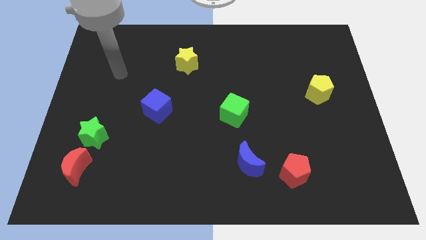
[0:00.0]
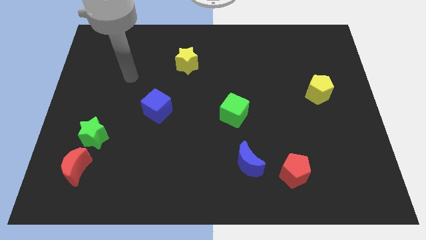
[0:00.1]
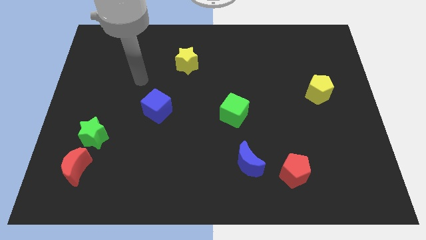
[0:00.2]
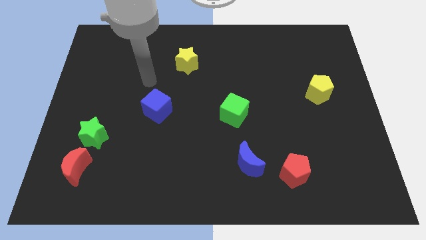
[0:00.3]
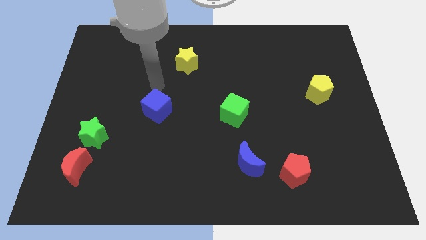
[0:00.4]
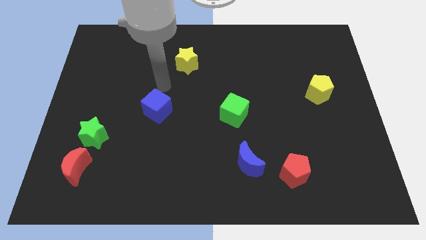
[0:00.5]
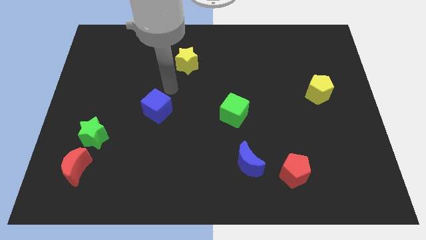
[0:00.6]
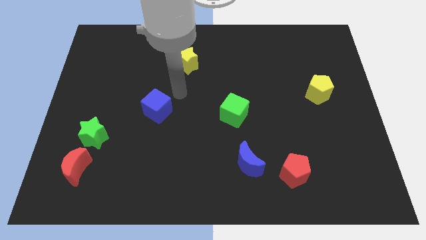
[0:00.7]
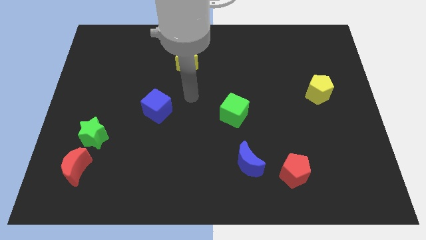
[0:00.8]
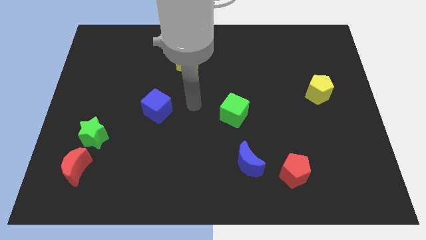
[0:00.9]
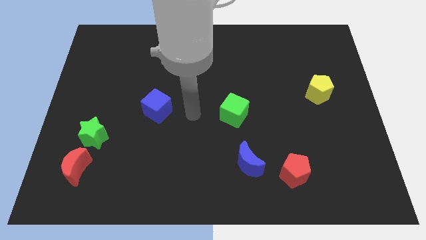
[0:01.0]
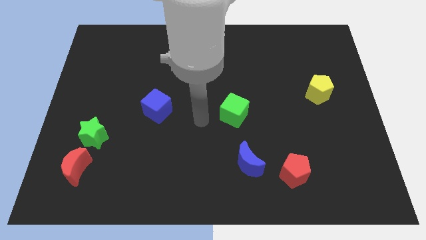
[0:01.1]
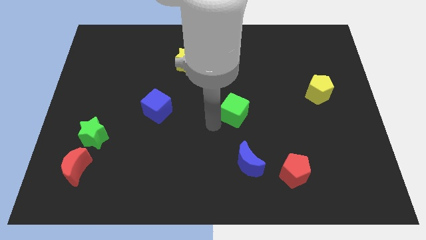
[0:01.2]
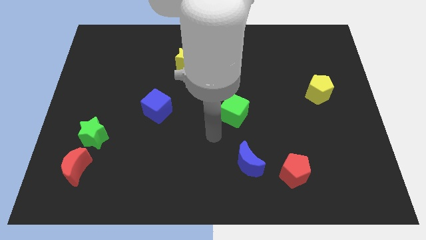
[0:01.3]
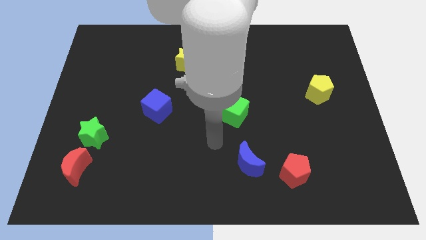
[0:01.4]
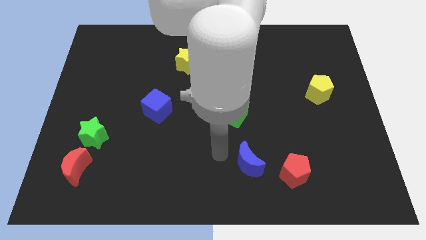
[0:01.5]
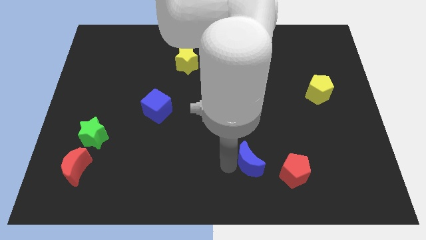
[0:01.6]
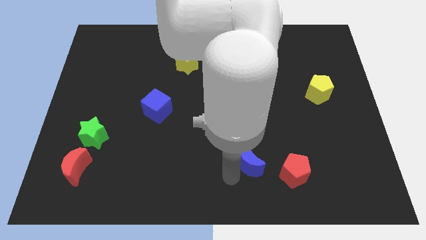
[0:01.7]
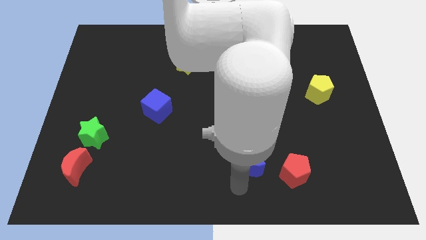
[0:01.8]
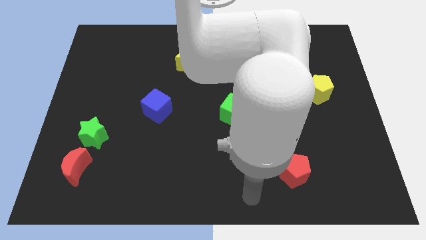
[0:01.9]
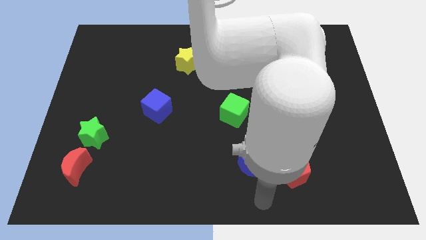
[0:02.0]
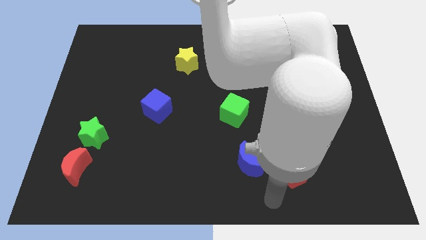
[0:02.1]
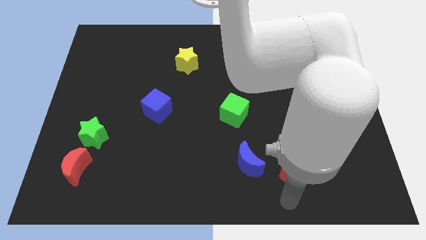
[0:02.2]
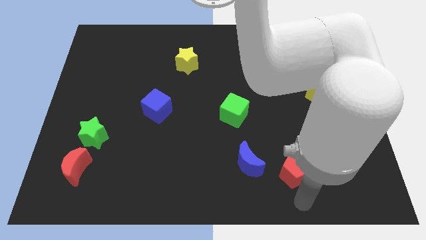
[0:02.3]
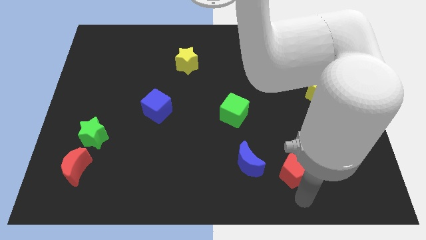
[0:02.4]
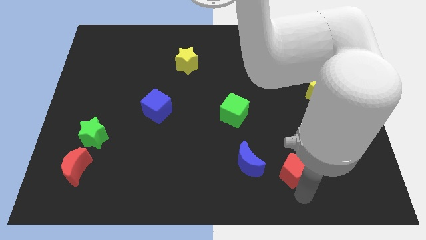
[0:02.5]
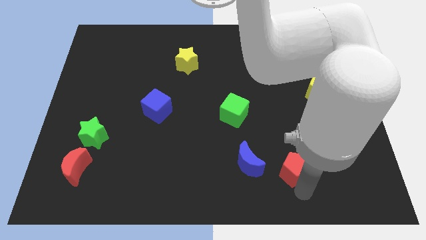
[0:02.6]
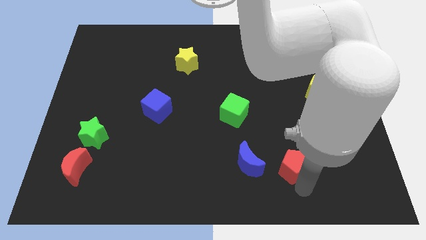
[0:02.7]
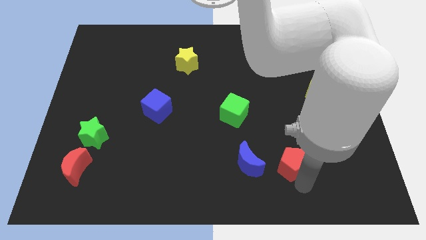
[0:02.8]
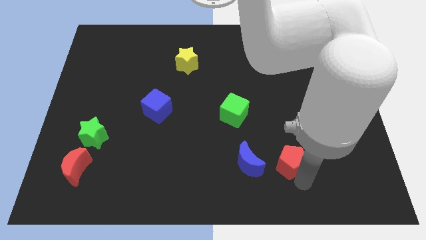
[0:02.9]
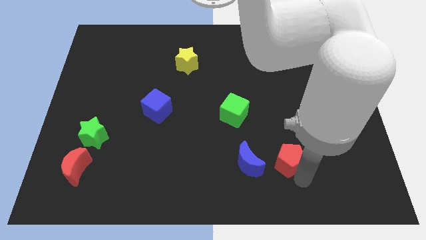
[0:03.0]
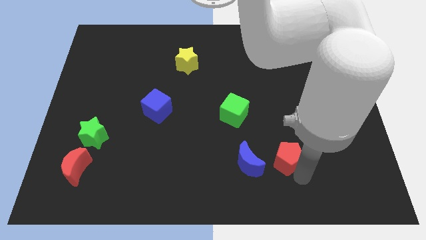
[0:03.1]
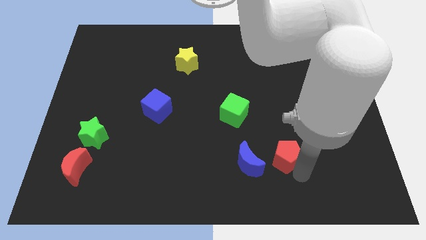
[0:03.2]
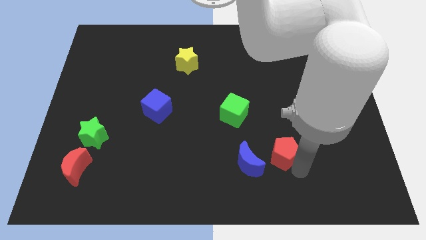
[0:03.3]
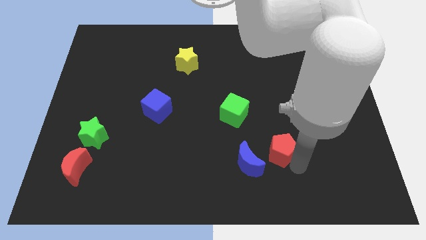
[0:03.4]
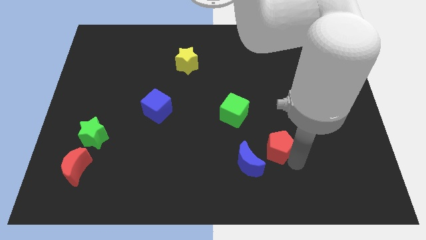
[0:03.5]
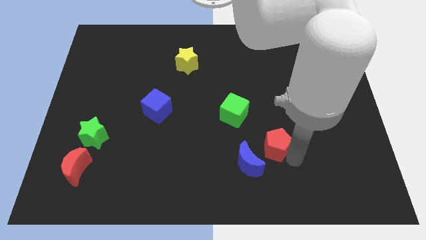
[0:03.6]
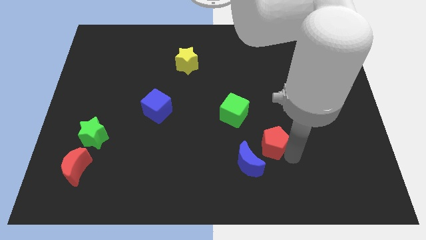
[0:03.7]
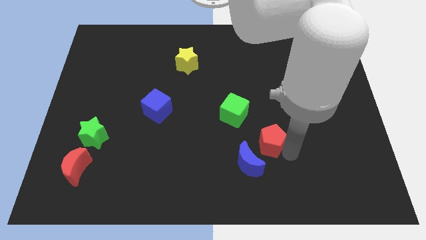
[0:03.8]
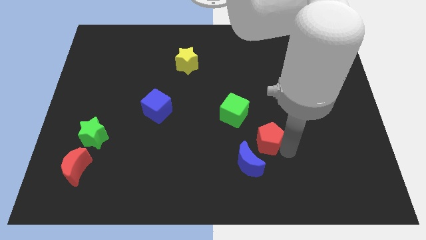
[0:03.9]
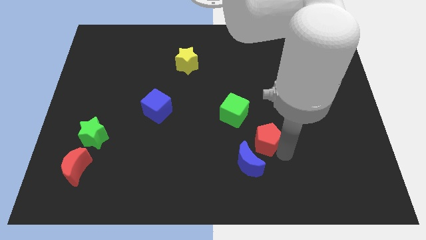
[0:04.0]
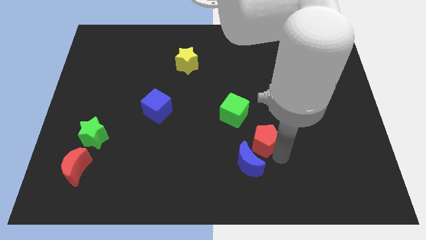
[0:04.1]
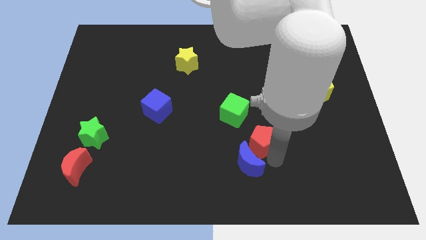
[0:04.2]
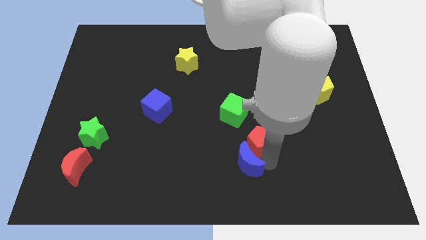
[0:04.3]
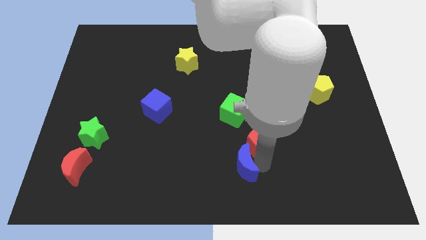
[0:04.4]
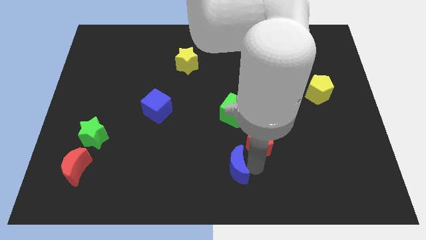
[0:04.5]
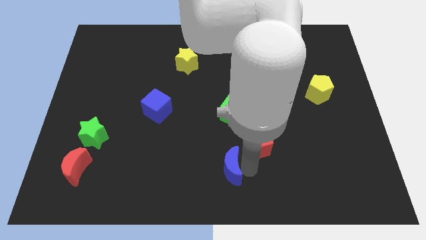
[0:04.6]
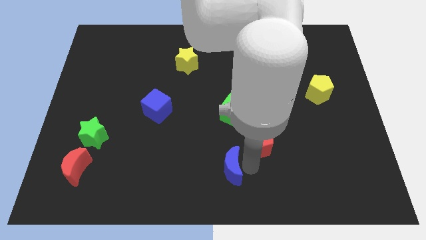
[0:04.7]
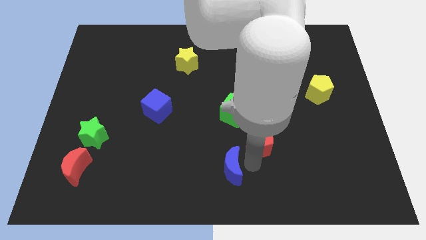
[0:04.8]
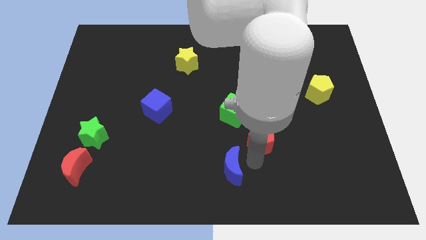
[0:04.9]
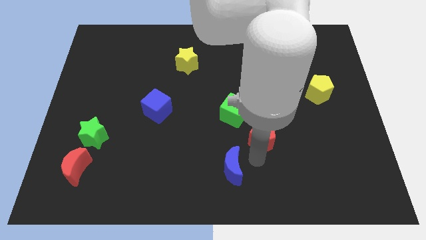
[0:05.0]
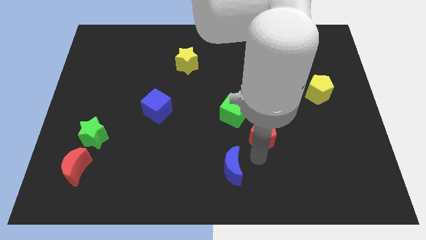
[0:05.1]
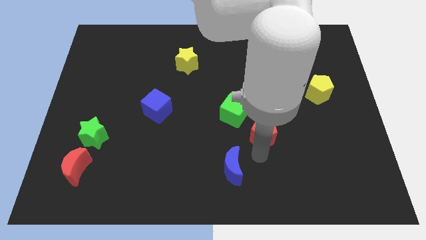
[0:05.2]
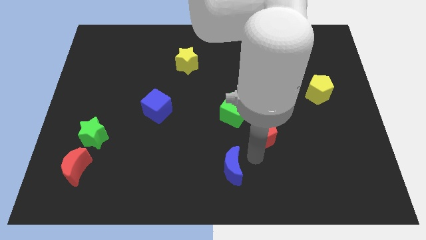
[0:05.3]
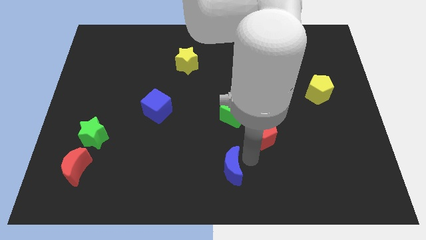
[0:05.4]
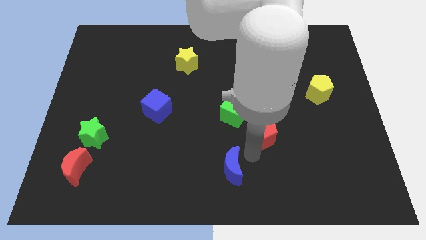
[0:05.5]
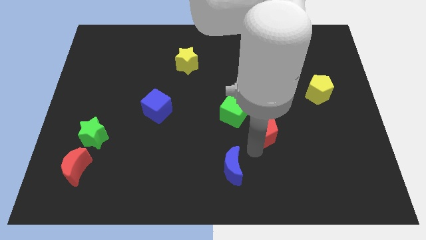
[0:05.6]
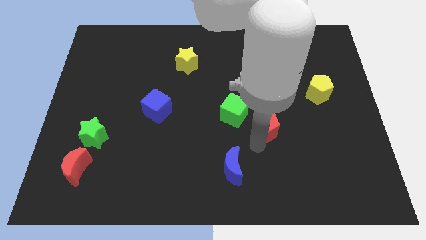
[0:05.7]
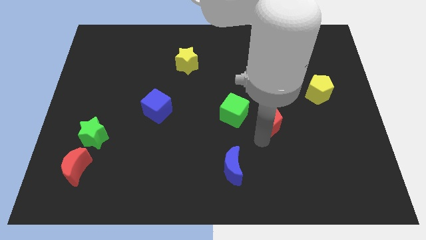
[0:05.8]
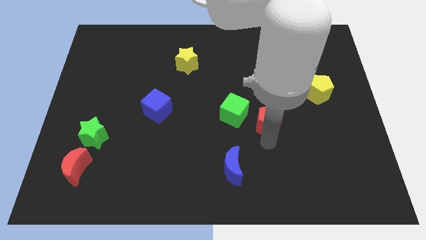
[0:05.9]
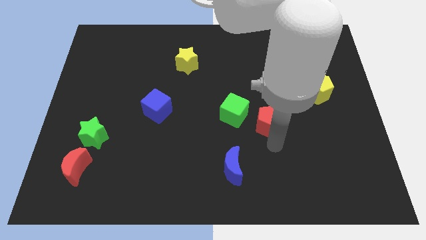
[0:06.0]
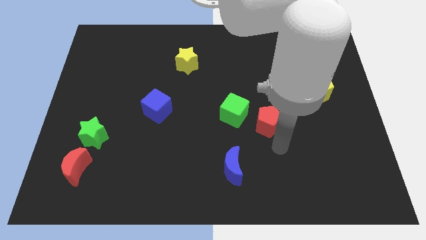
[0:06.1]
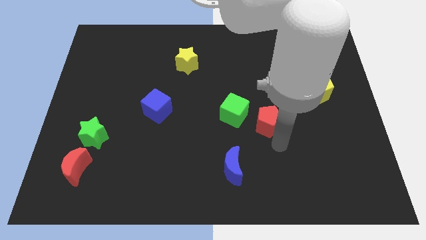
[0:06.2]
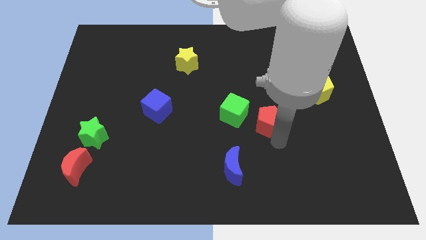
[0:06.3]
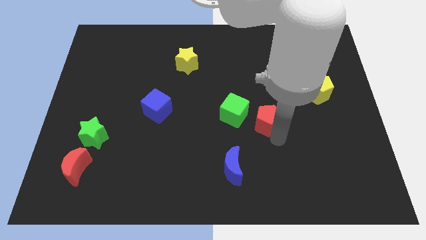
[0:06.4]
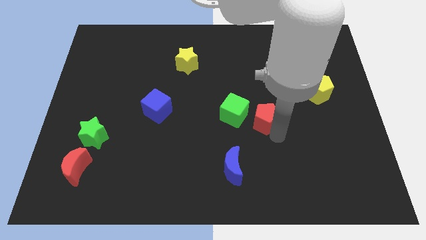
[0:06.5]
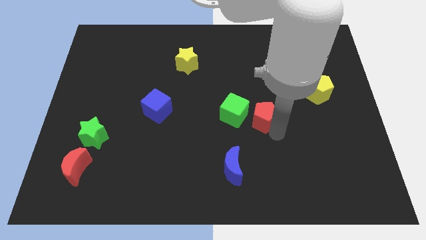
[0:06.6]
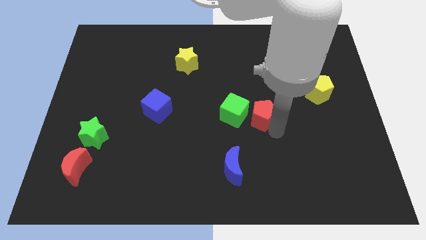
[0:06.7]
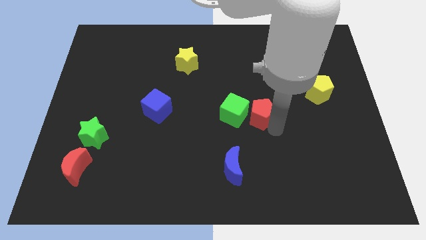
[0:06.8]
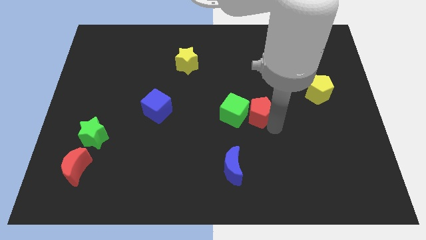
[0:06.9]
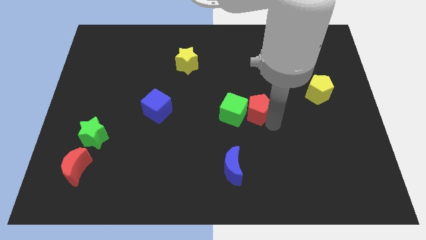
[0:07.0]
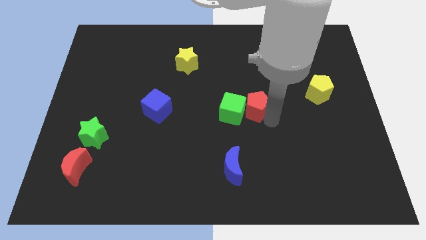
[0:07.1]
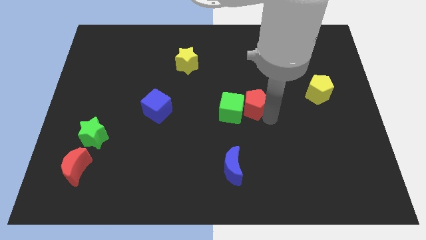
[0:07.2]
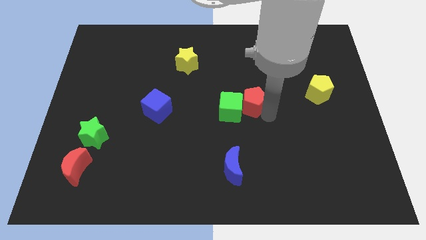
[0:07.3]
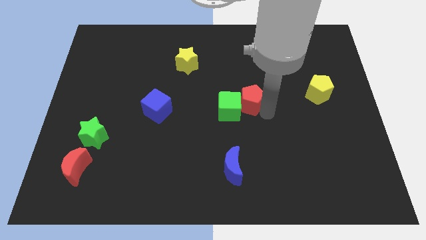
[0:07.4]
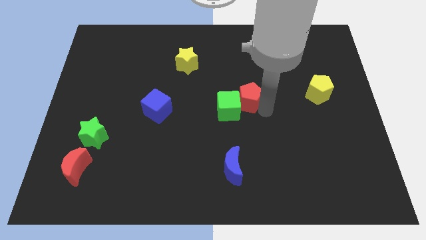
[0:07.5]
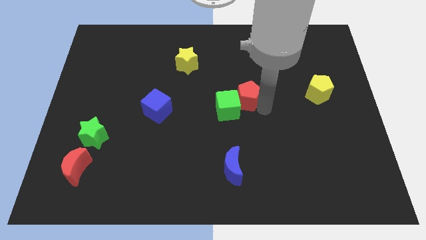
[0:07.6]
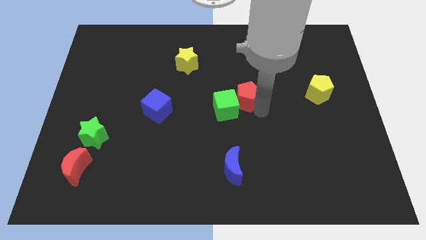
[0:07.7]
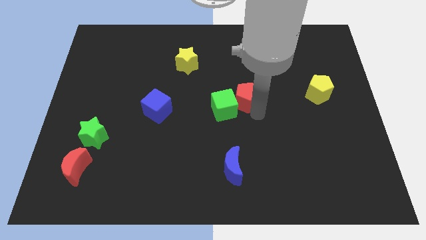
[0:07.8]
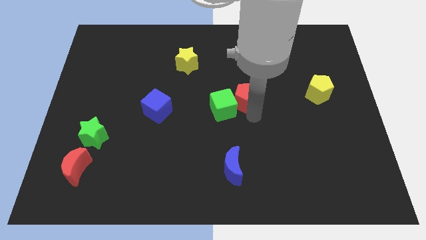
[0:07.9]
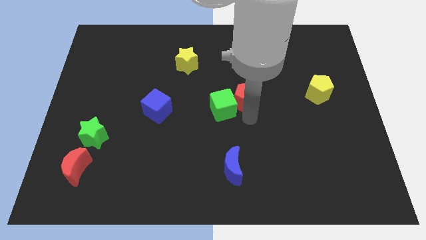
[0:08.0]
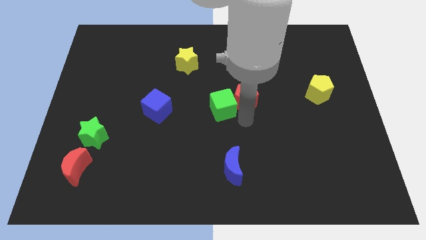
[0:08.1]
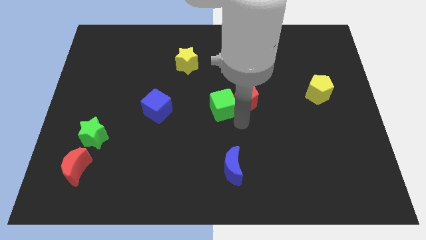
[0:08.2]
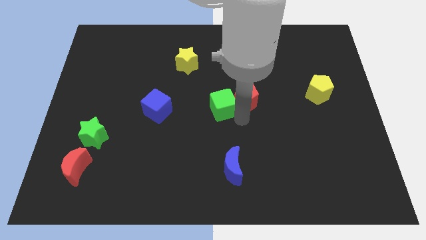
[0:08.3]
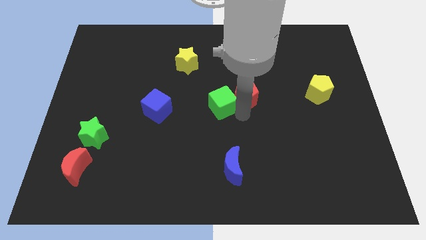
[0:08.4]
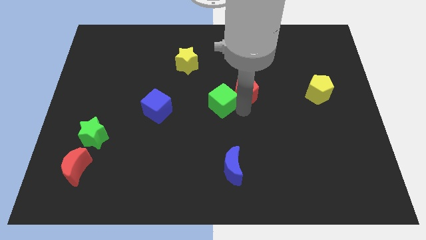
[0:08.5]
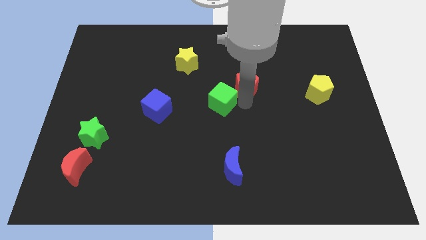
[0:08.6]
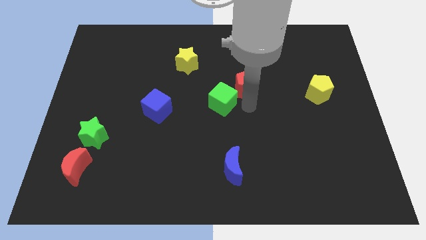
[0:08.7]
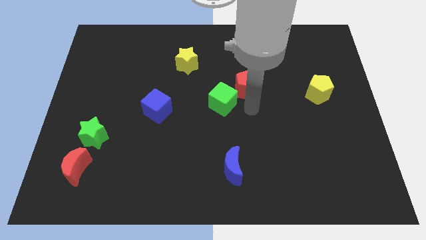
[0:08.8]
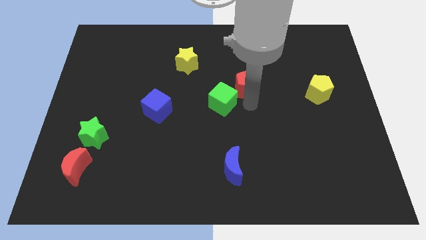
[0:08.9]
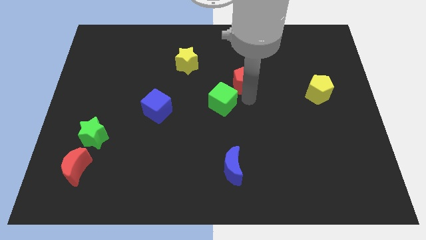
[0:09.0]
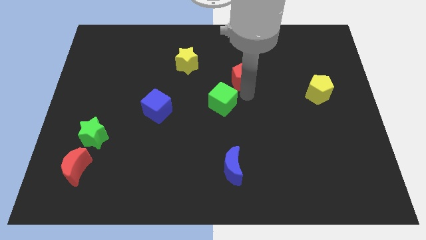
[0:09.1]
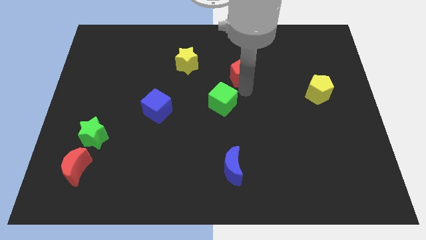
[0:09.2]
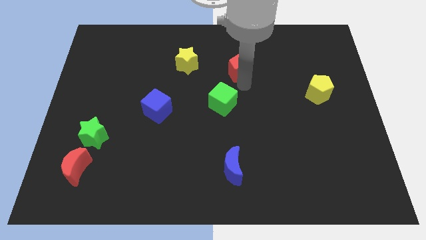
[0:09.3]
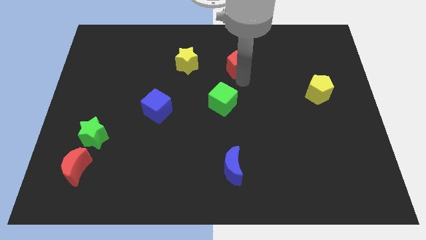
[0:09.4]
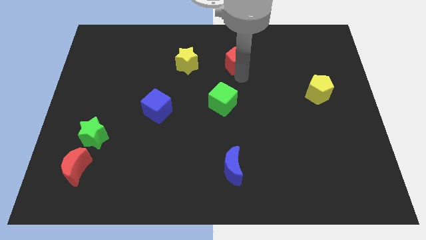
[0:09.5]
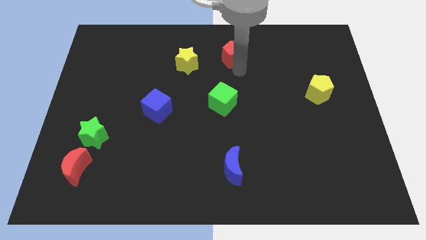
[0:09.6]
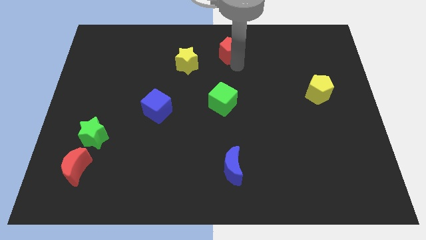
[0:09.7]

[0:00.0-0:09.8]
move the red pentagon to the top side
